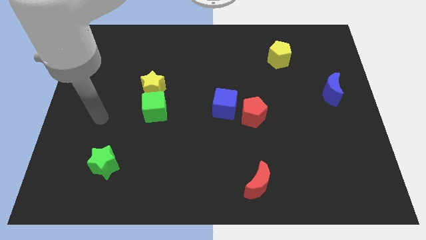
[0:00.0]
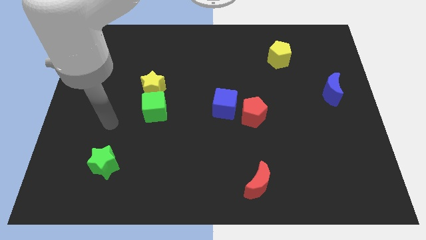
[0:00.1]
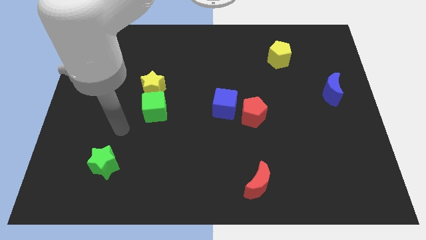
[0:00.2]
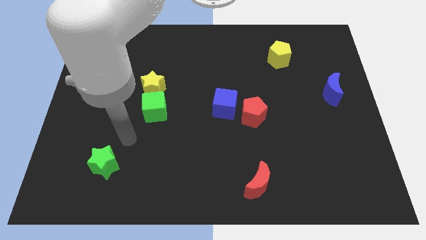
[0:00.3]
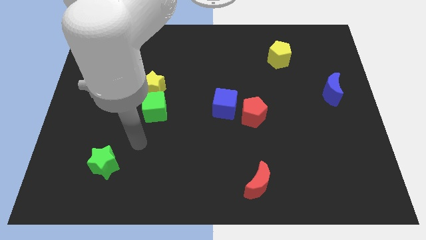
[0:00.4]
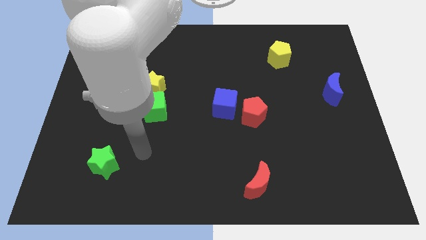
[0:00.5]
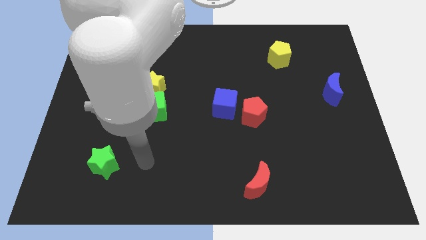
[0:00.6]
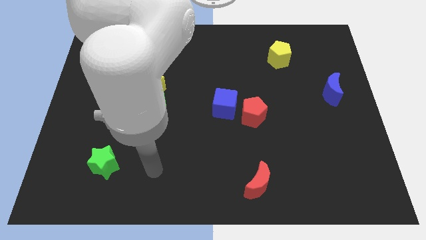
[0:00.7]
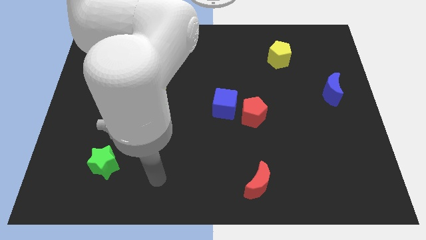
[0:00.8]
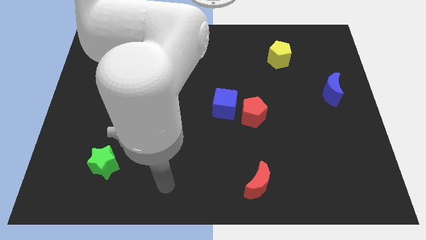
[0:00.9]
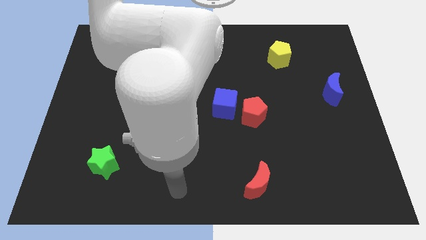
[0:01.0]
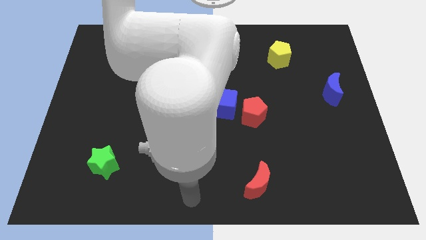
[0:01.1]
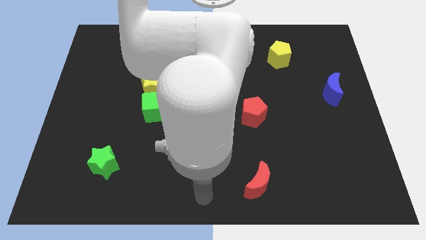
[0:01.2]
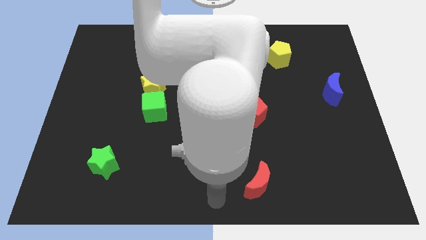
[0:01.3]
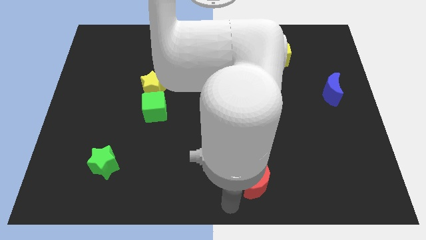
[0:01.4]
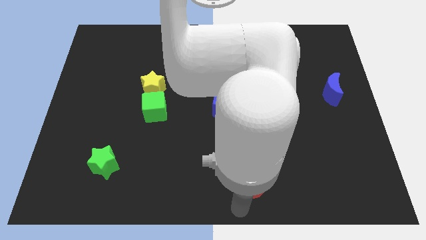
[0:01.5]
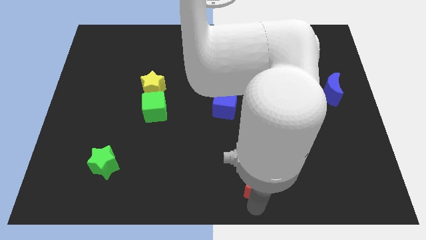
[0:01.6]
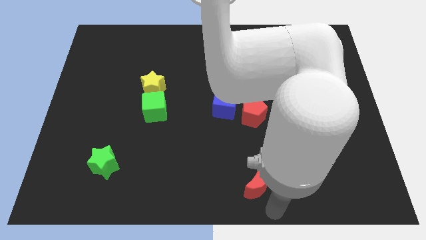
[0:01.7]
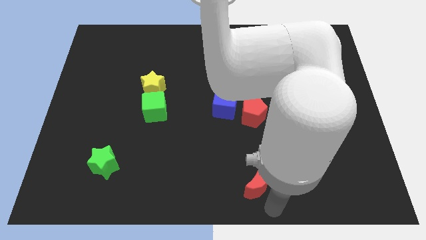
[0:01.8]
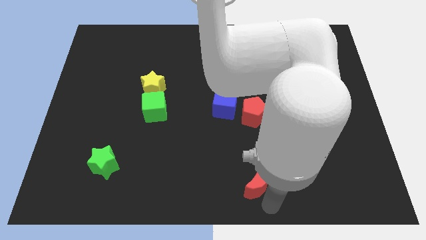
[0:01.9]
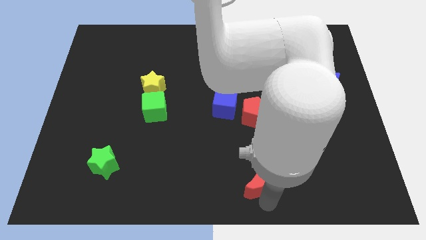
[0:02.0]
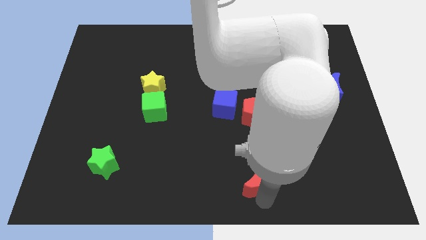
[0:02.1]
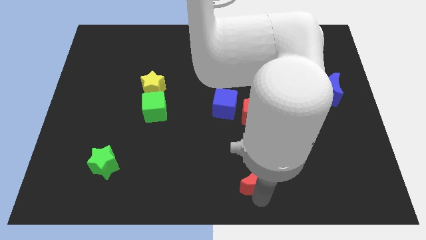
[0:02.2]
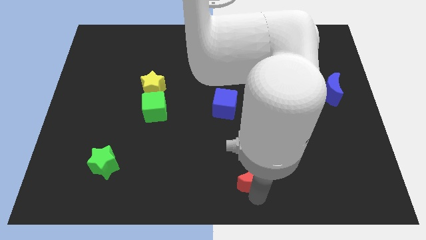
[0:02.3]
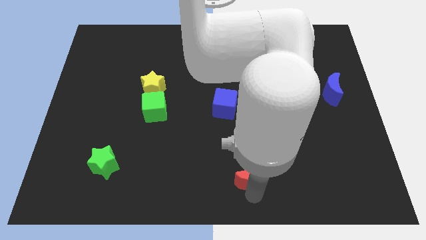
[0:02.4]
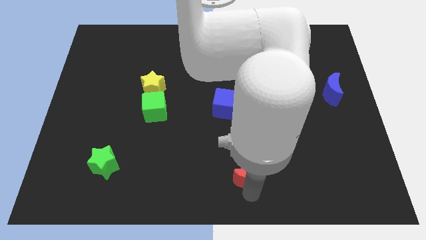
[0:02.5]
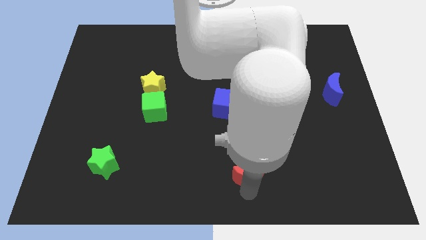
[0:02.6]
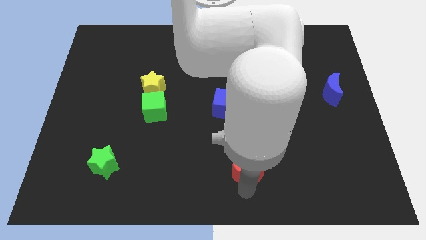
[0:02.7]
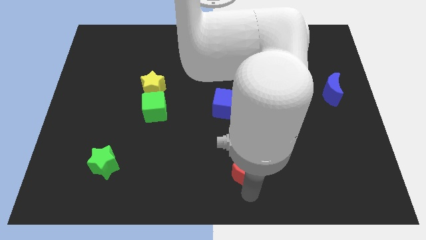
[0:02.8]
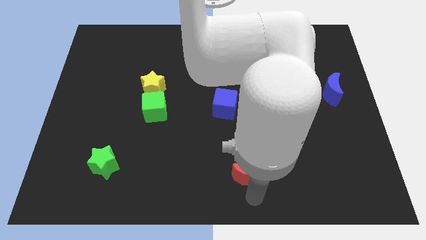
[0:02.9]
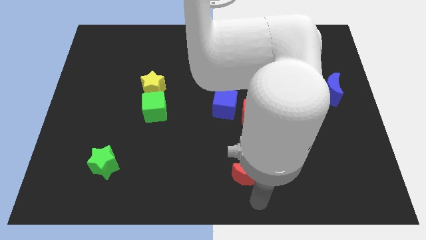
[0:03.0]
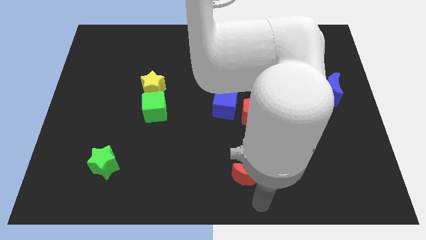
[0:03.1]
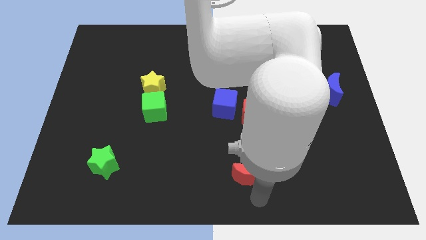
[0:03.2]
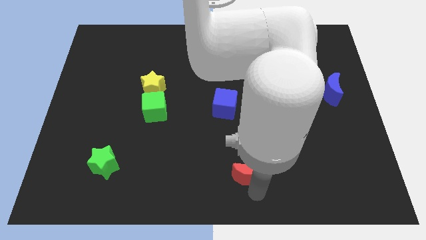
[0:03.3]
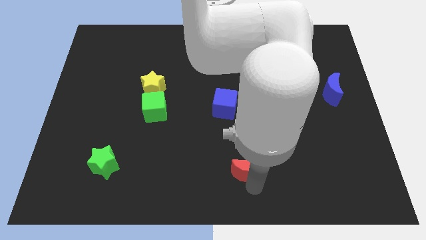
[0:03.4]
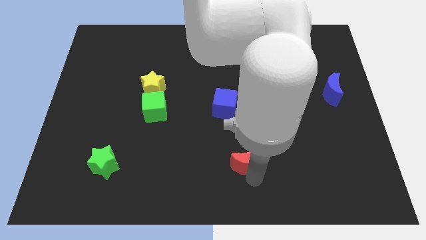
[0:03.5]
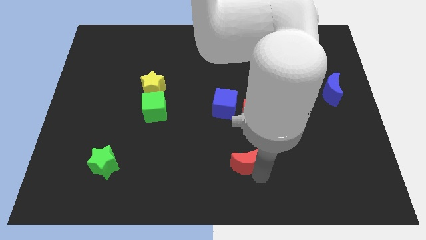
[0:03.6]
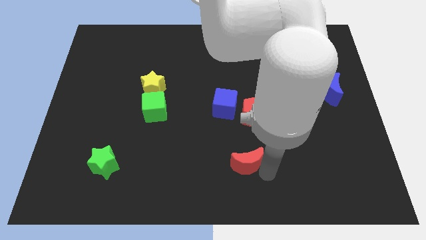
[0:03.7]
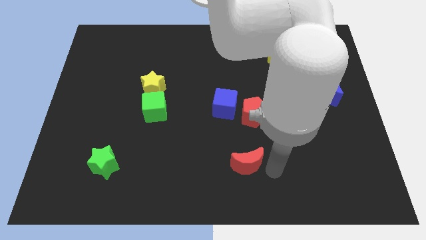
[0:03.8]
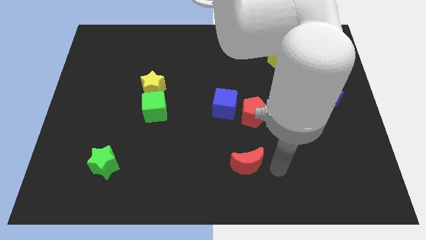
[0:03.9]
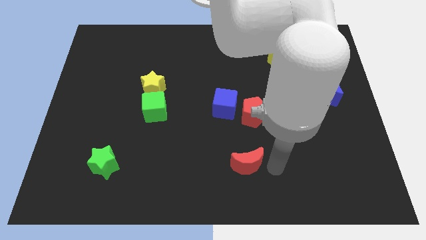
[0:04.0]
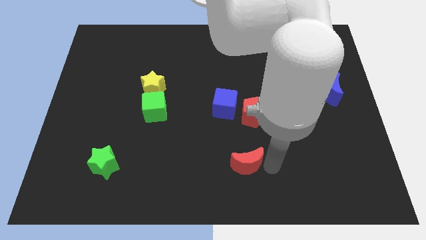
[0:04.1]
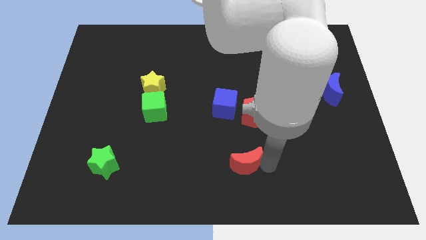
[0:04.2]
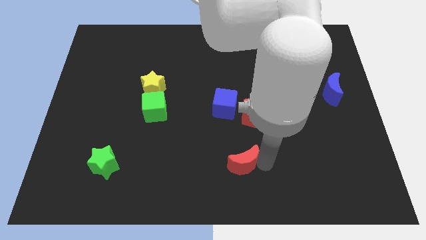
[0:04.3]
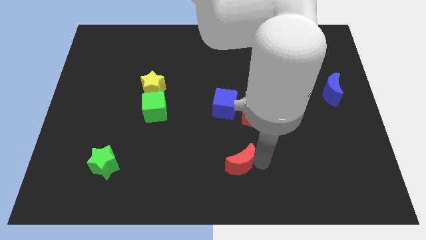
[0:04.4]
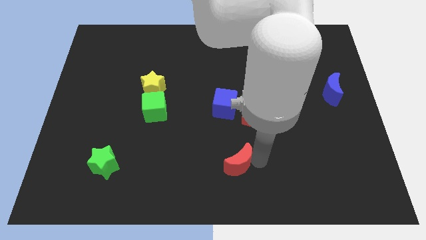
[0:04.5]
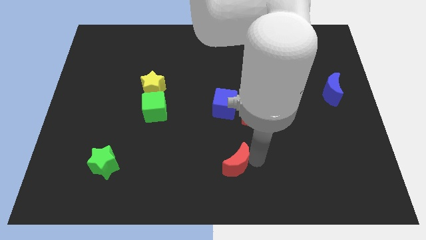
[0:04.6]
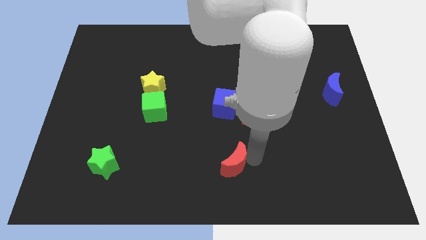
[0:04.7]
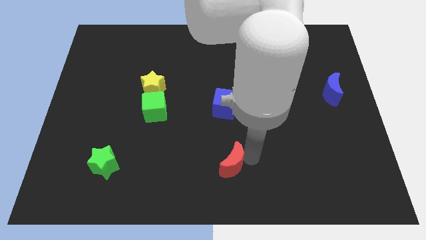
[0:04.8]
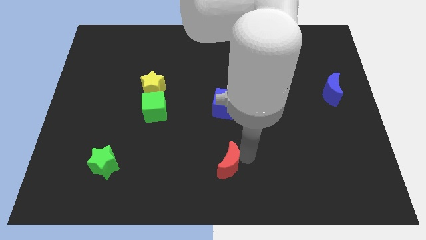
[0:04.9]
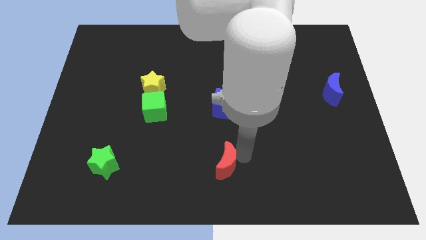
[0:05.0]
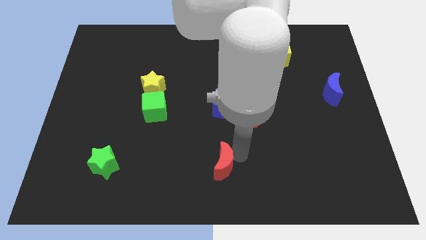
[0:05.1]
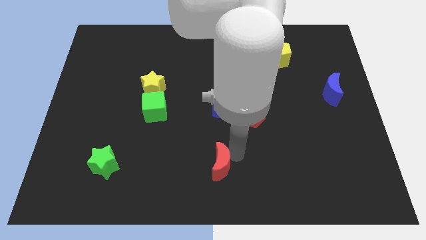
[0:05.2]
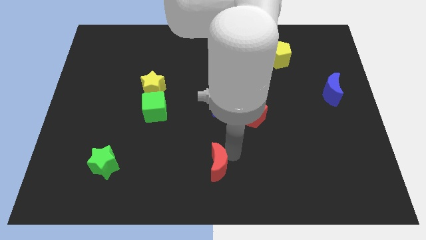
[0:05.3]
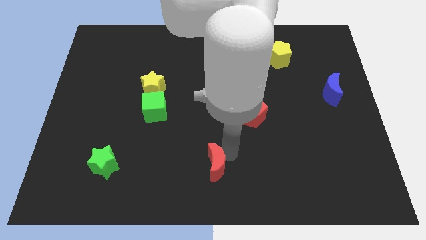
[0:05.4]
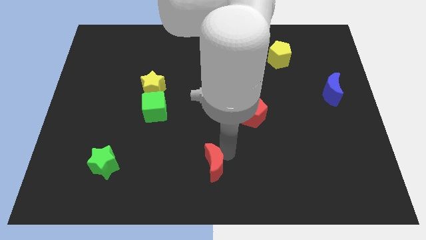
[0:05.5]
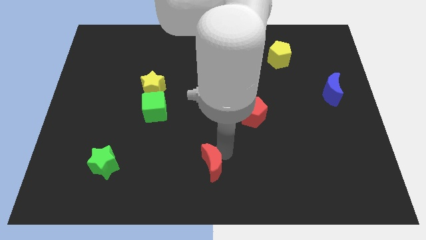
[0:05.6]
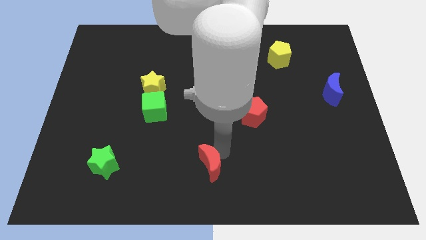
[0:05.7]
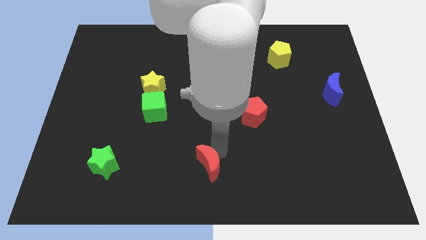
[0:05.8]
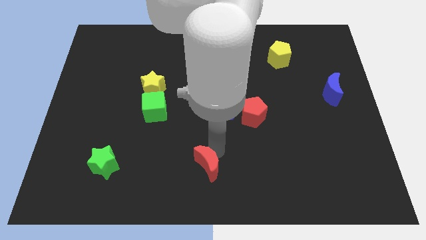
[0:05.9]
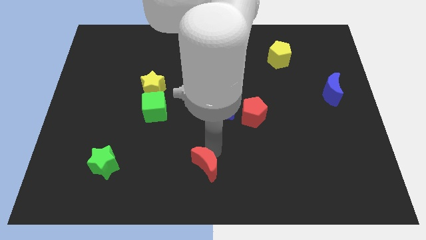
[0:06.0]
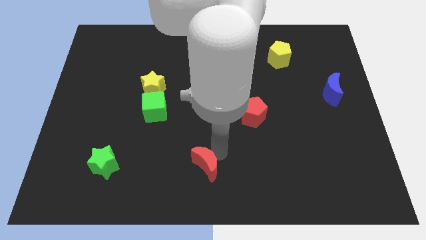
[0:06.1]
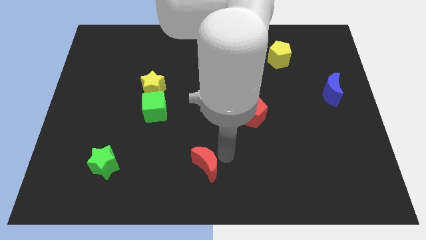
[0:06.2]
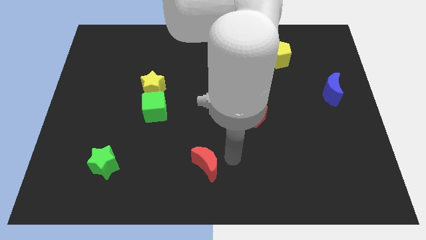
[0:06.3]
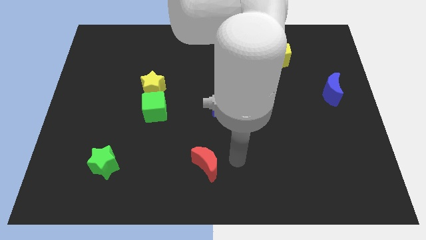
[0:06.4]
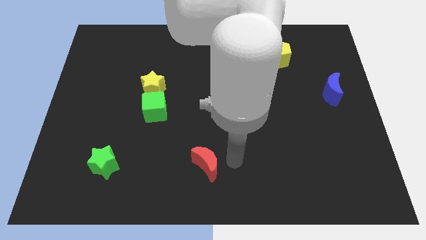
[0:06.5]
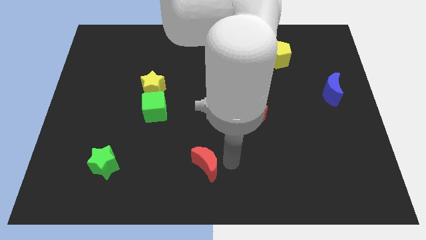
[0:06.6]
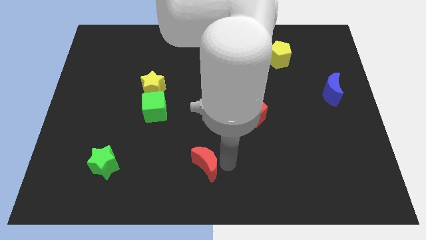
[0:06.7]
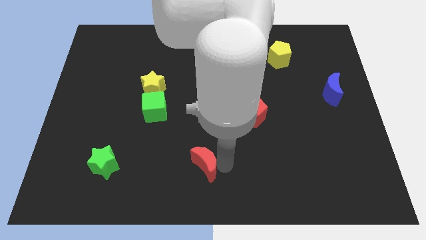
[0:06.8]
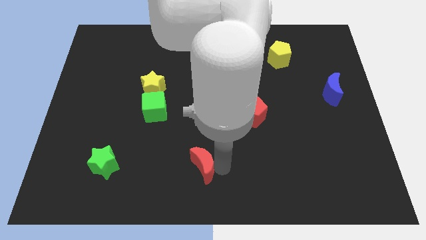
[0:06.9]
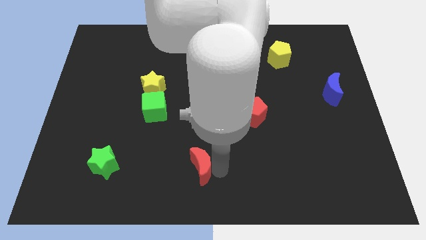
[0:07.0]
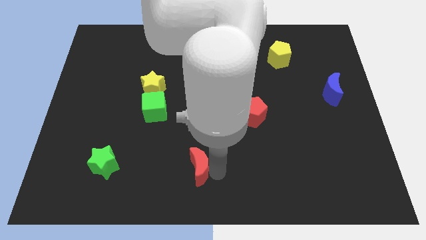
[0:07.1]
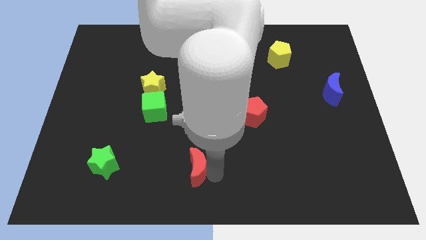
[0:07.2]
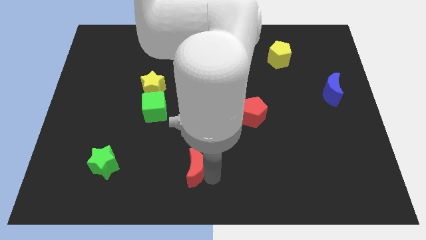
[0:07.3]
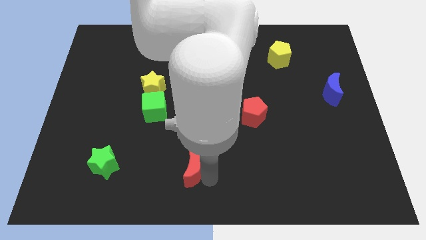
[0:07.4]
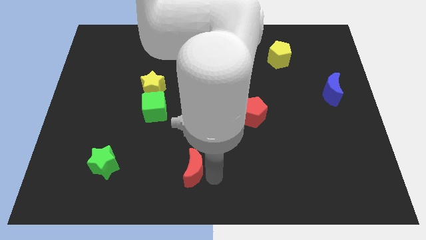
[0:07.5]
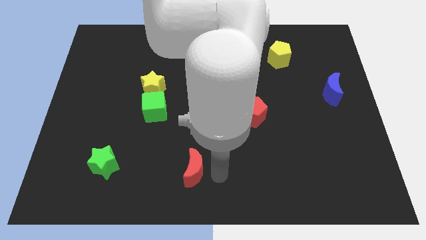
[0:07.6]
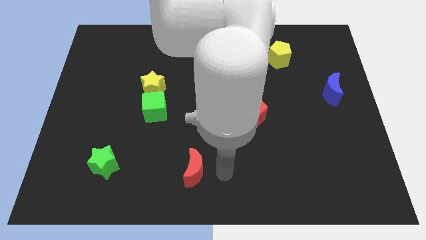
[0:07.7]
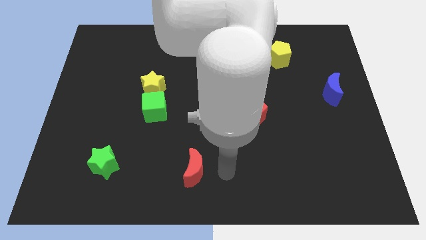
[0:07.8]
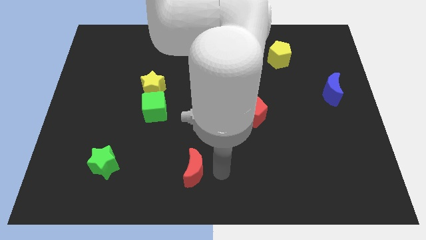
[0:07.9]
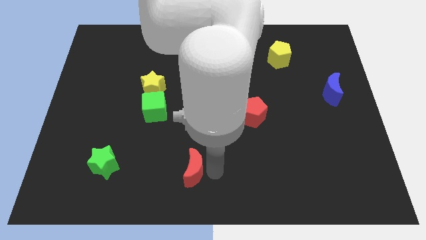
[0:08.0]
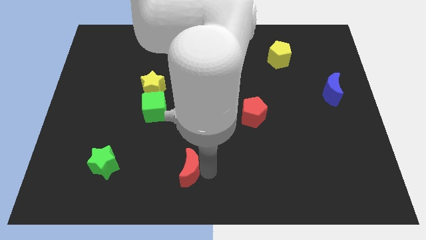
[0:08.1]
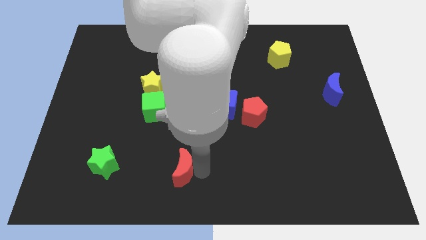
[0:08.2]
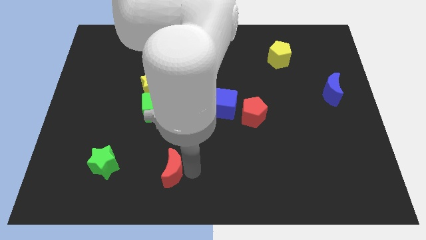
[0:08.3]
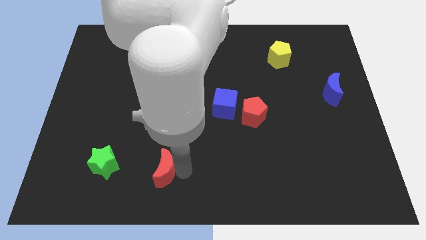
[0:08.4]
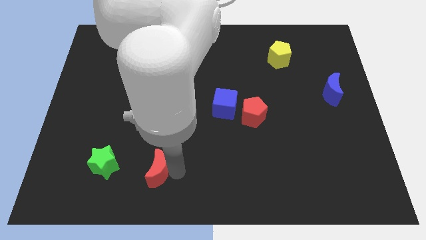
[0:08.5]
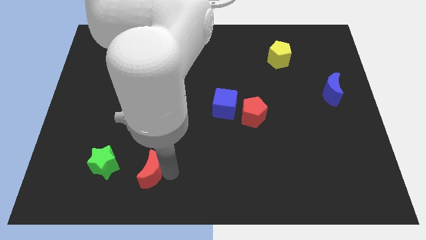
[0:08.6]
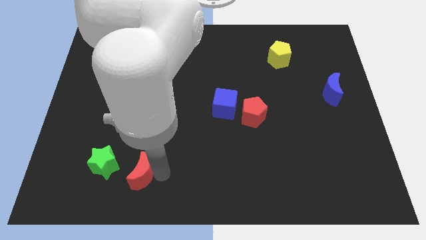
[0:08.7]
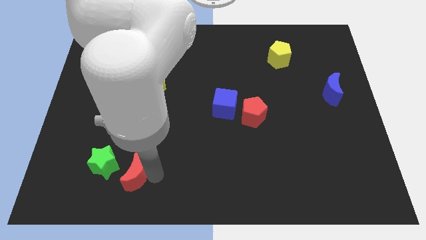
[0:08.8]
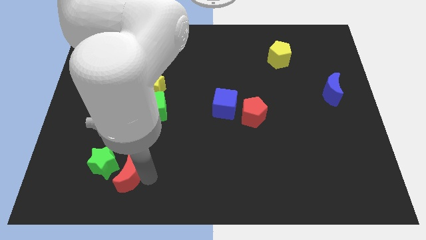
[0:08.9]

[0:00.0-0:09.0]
move the red moon to the green star
